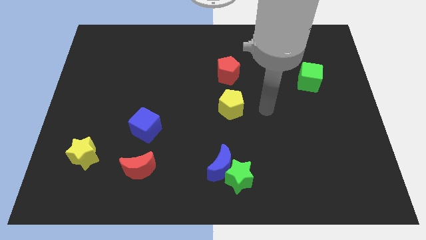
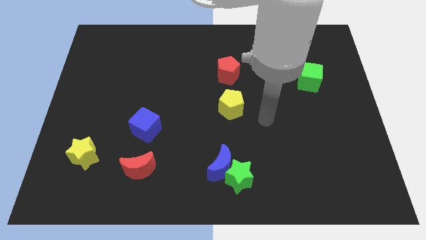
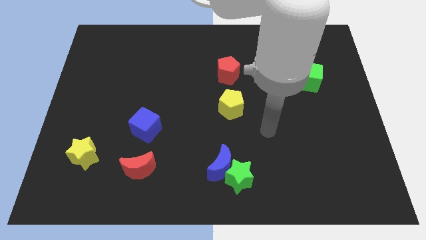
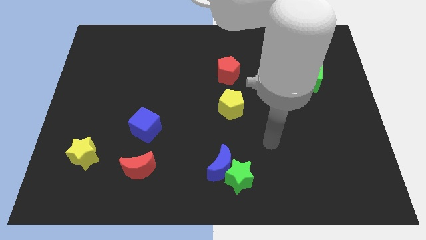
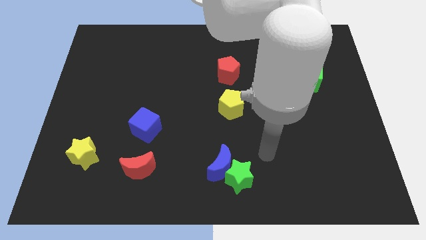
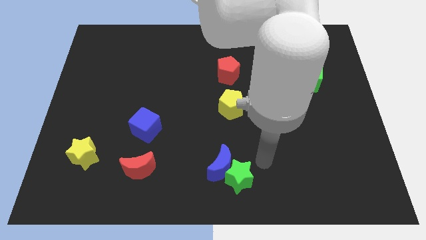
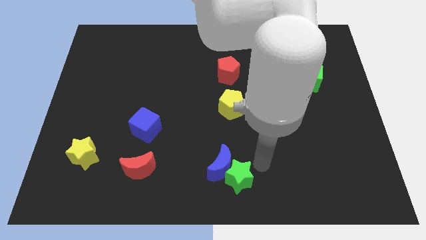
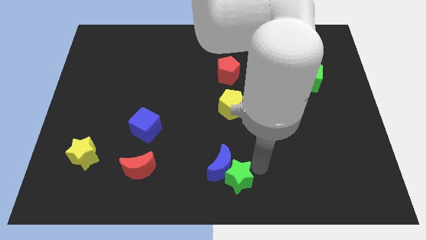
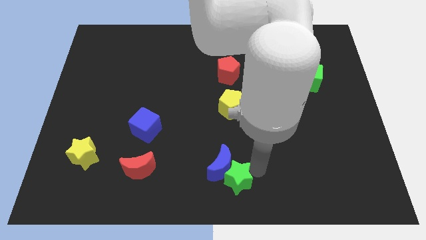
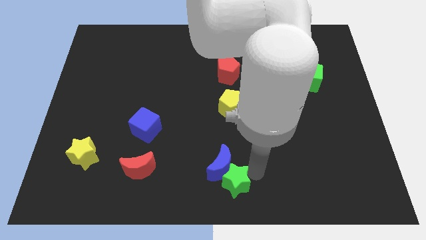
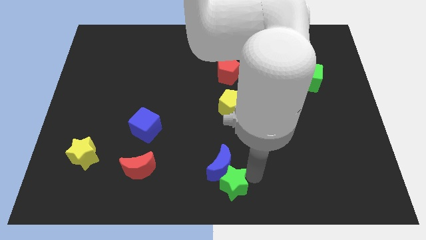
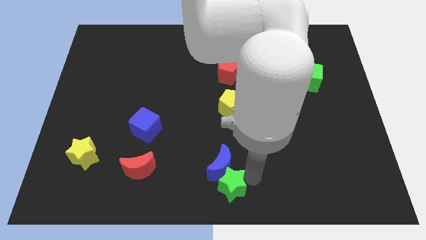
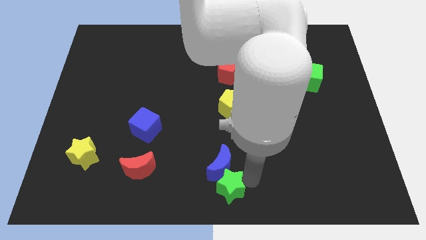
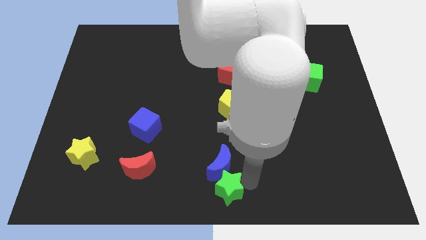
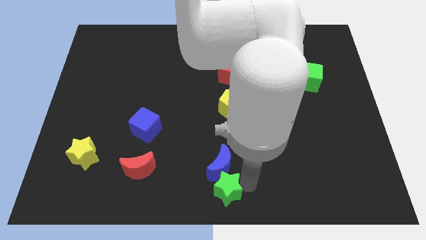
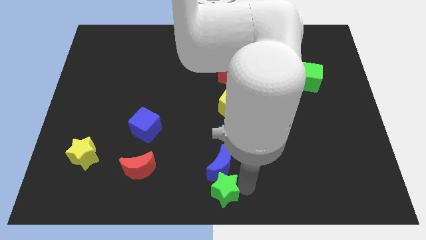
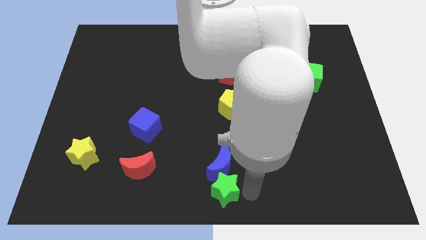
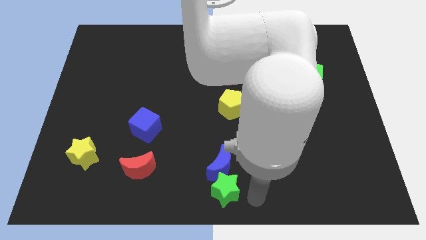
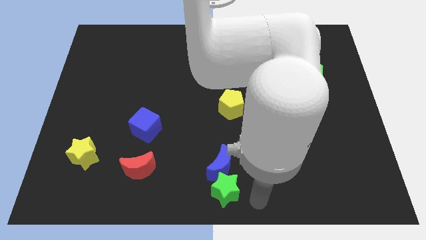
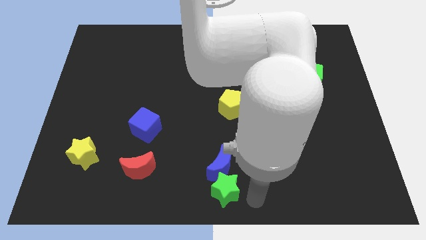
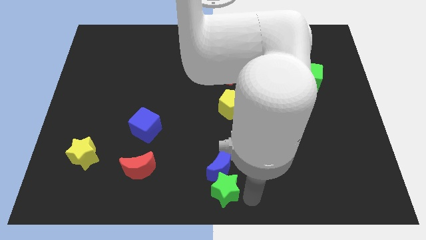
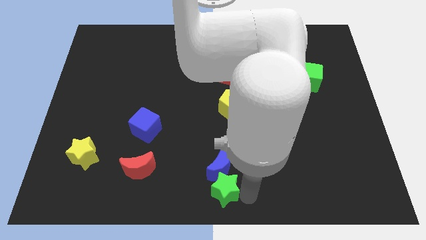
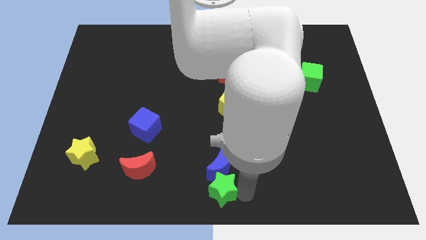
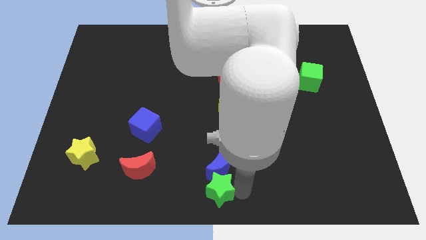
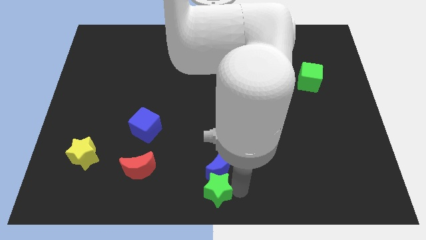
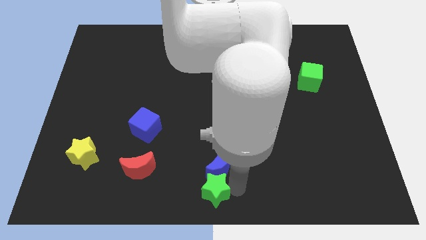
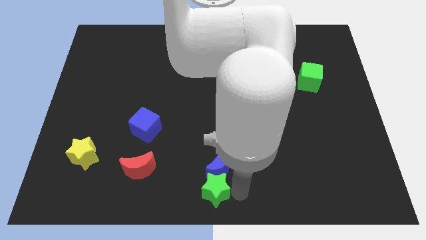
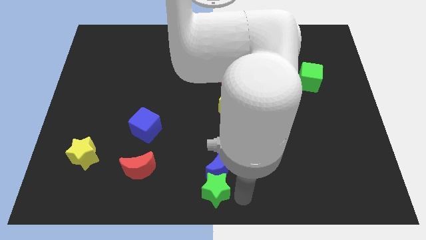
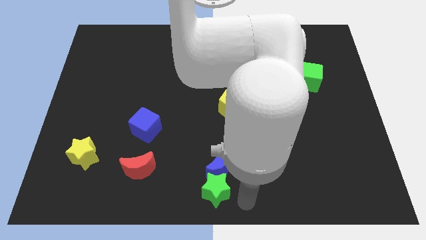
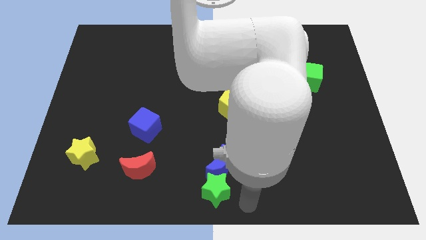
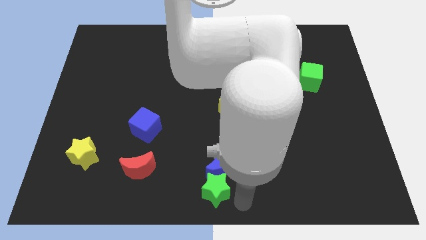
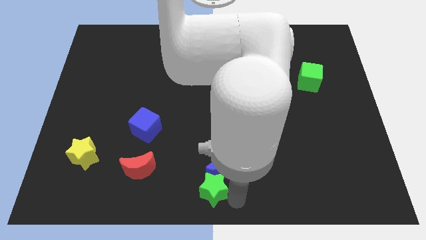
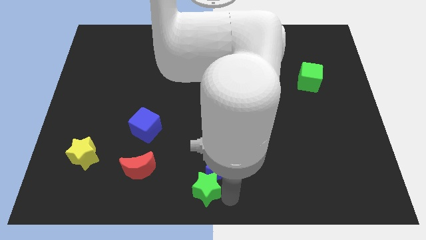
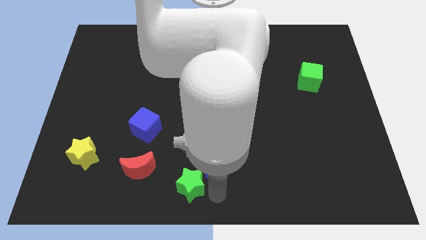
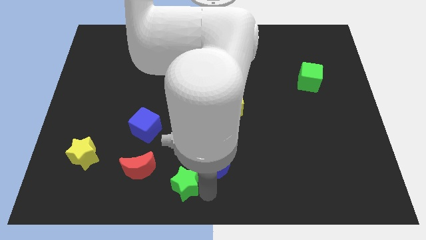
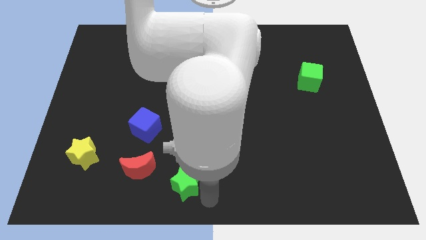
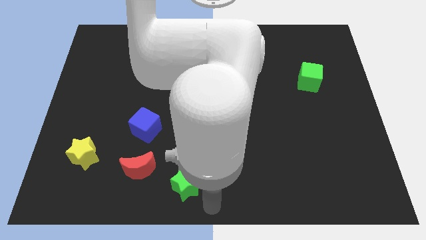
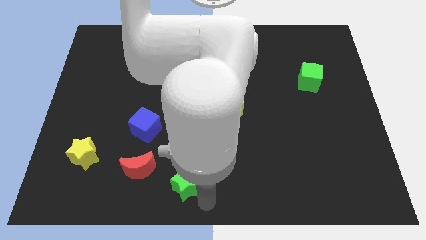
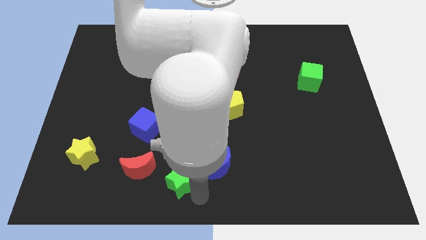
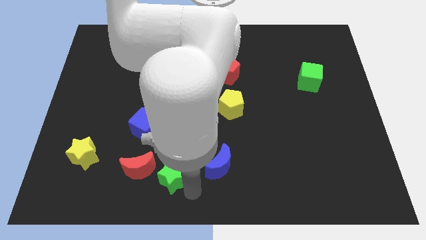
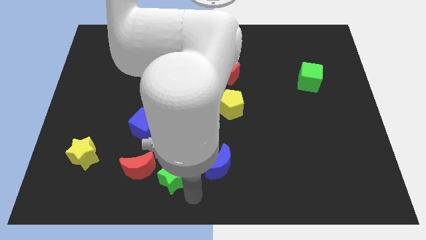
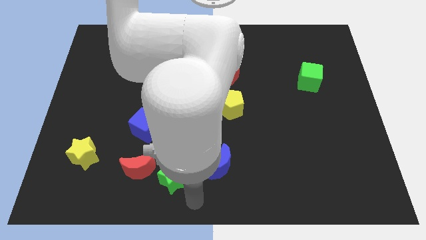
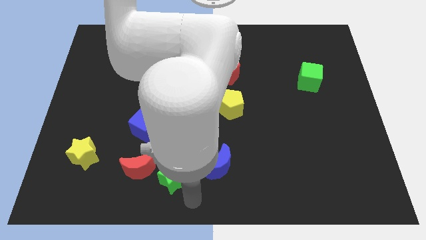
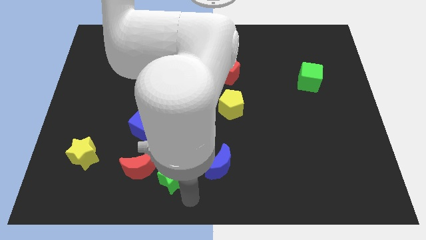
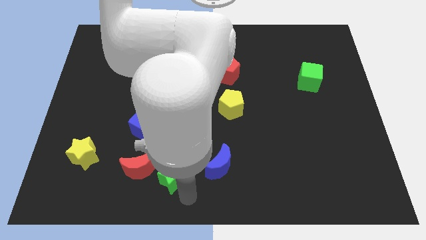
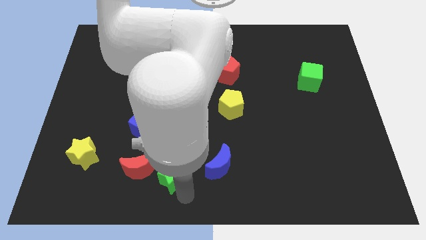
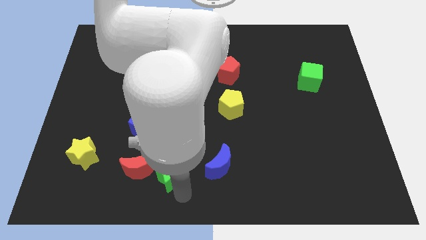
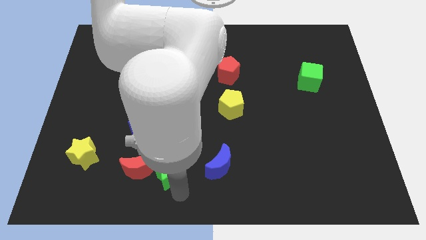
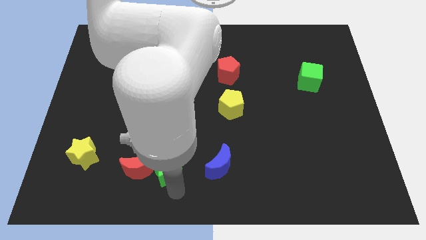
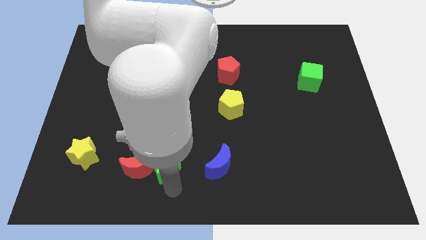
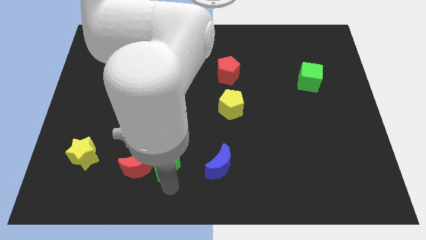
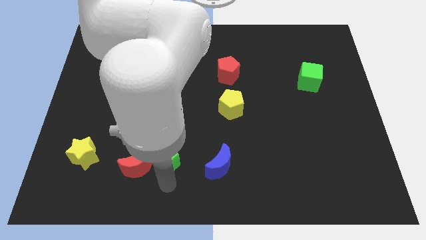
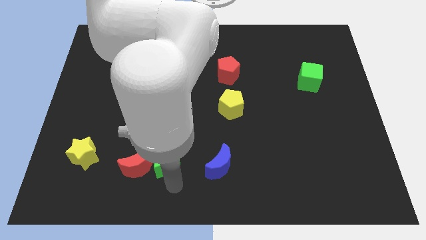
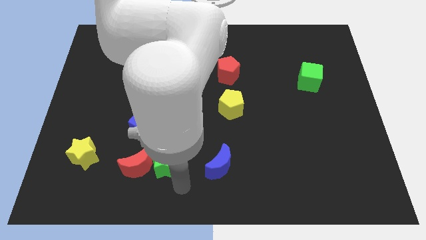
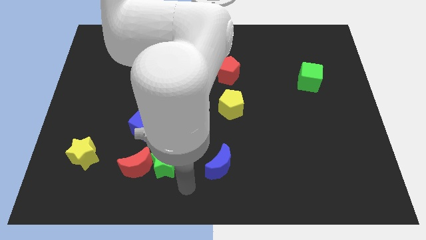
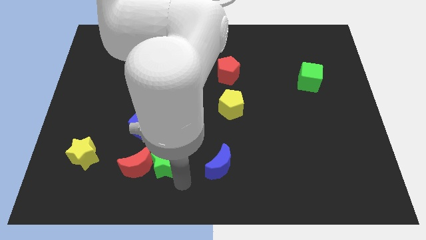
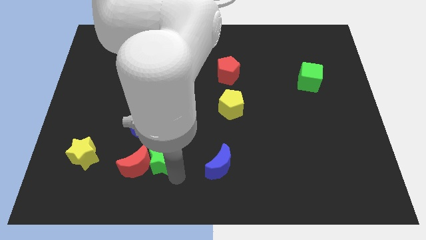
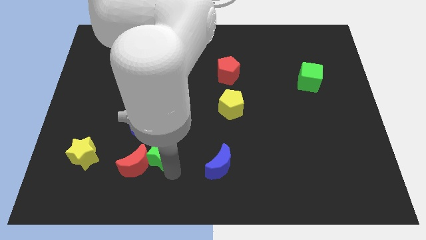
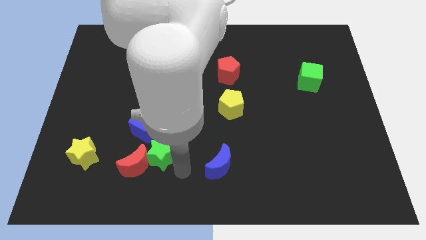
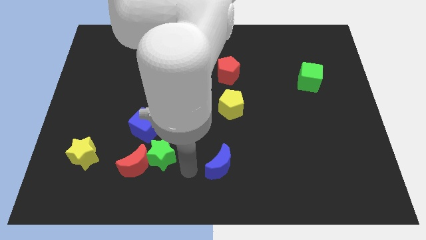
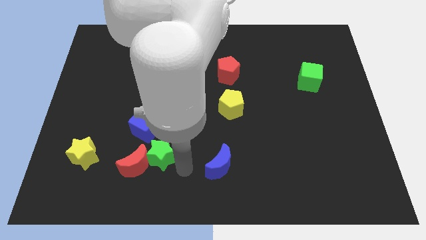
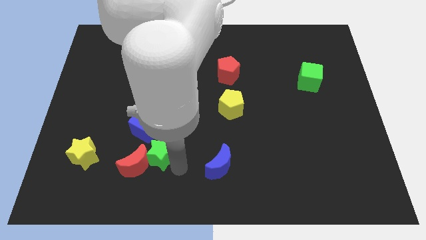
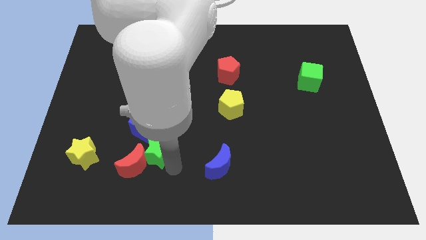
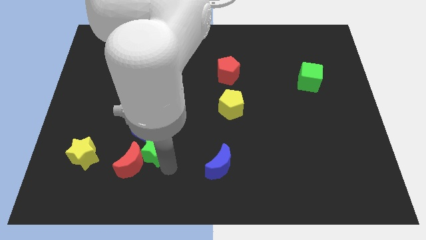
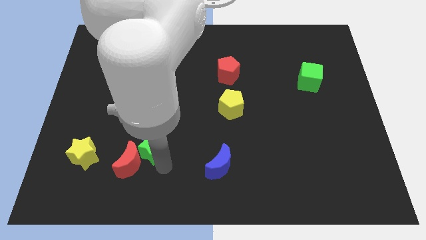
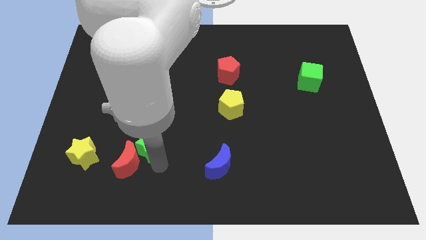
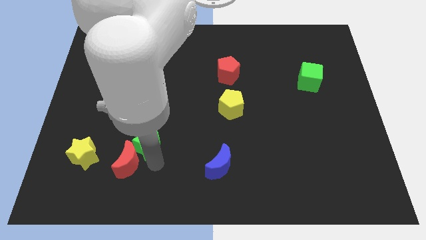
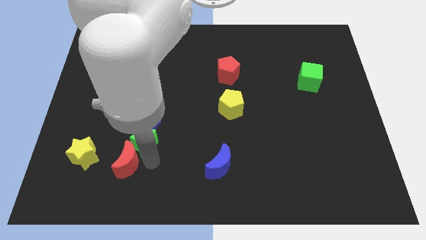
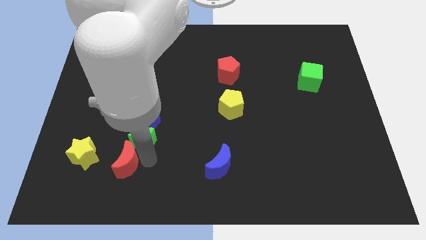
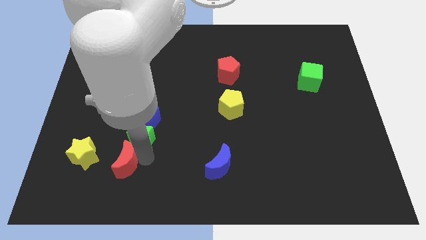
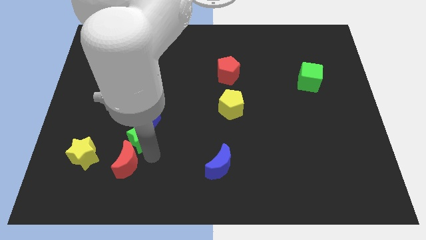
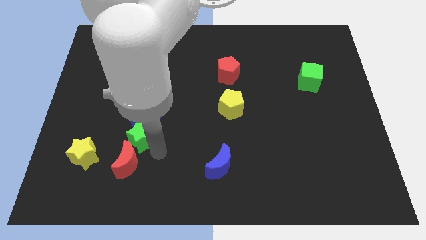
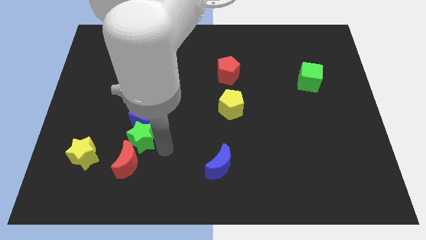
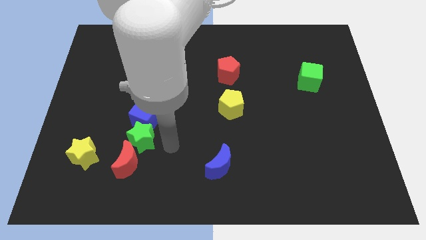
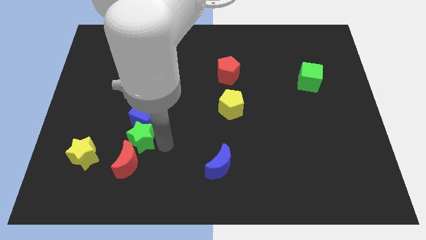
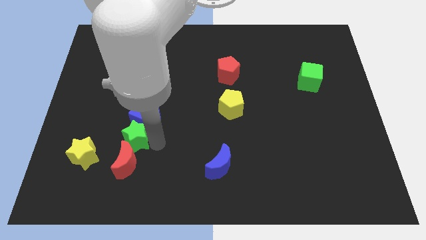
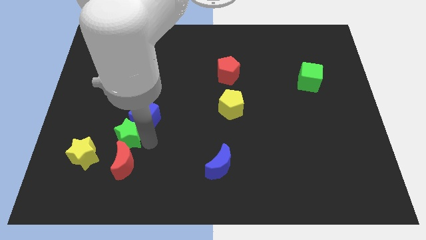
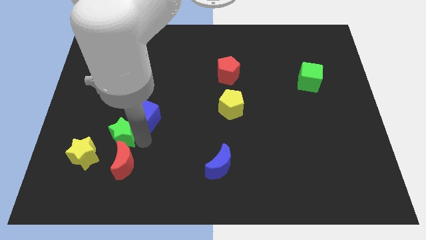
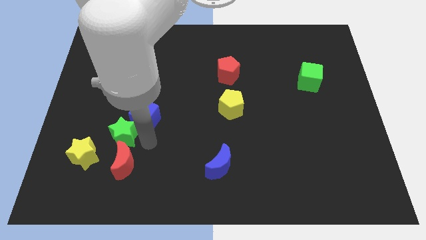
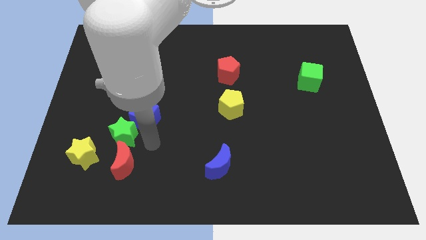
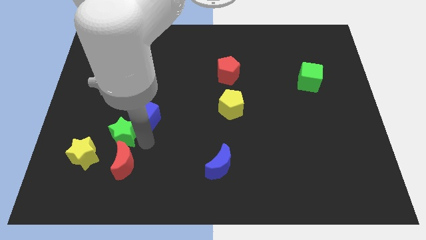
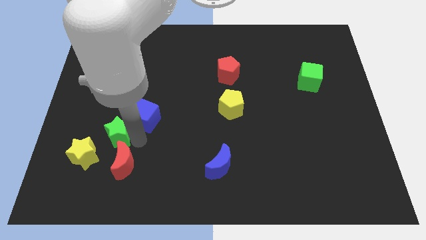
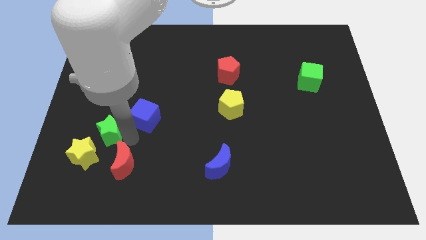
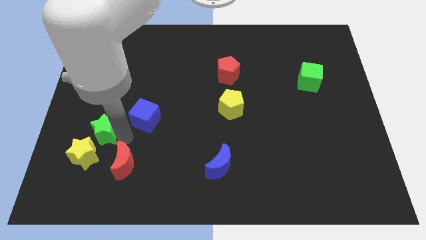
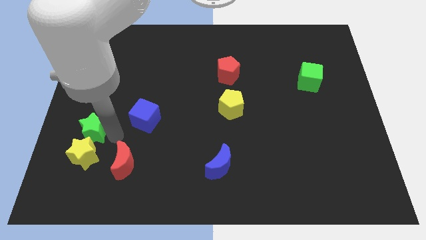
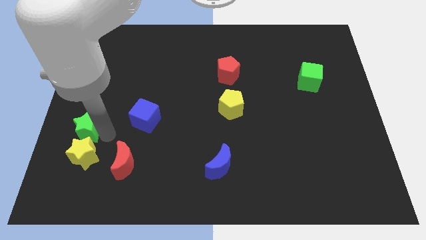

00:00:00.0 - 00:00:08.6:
push the green star to the left side of the board
